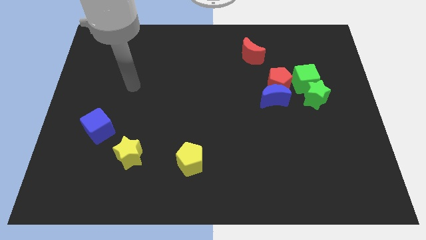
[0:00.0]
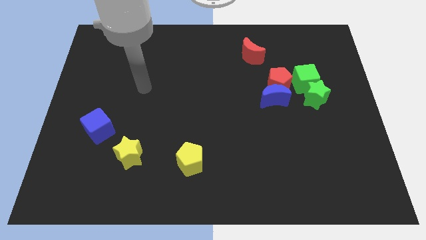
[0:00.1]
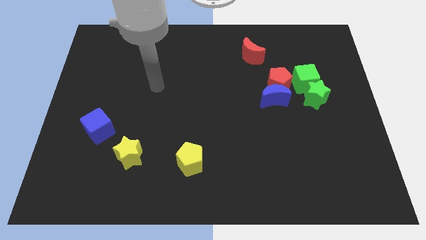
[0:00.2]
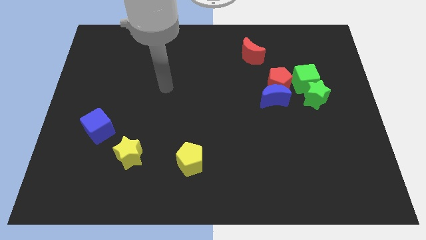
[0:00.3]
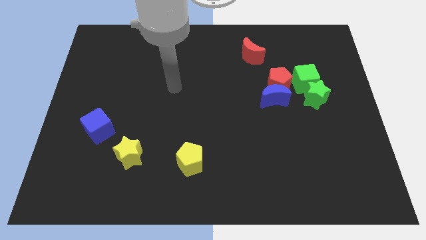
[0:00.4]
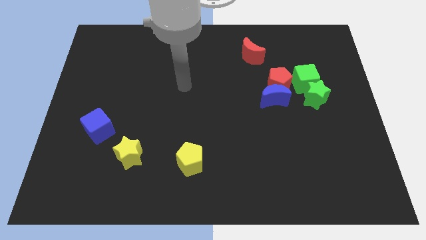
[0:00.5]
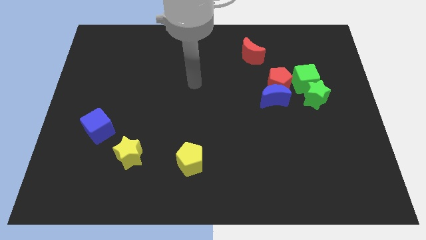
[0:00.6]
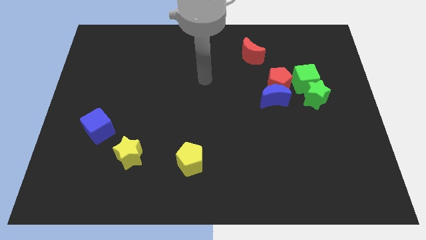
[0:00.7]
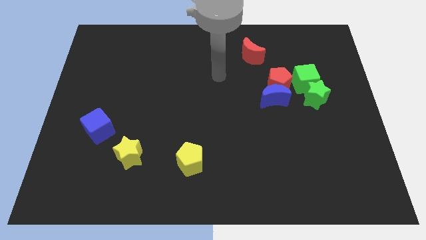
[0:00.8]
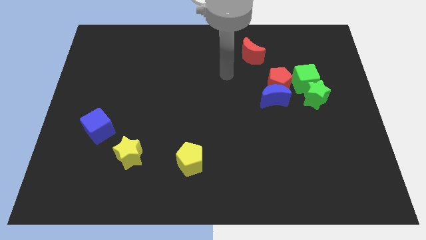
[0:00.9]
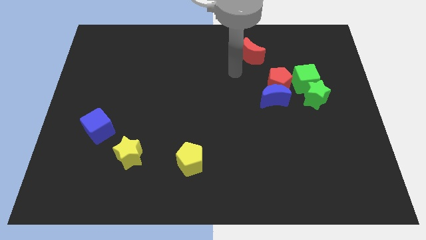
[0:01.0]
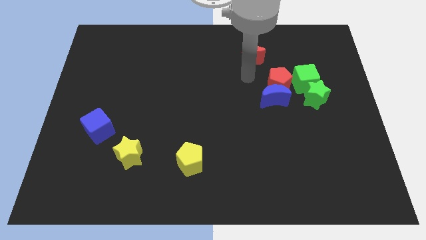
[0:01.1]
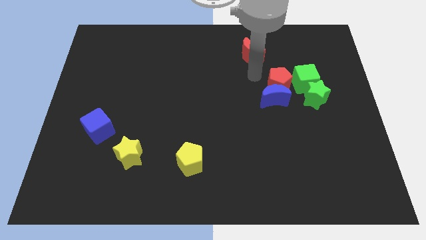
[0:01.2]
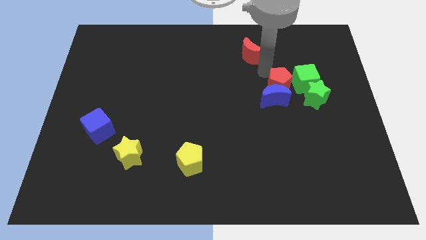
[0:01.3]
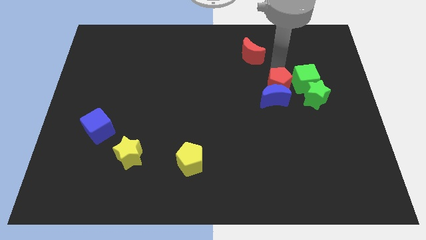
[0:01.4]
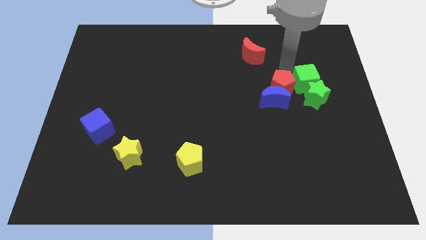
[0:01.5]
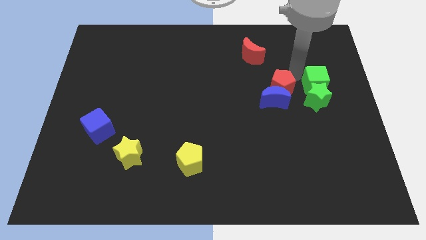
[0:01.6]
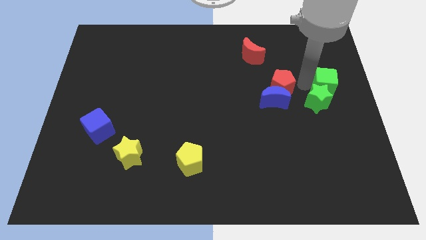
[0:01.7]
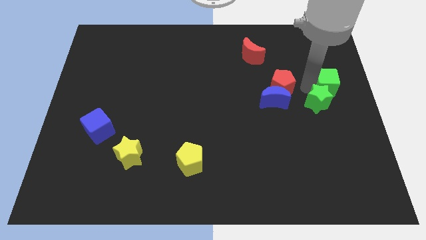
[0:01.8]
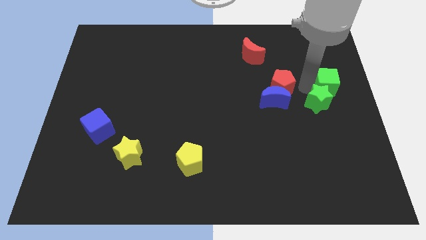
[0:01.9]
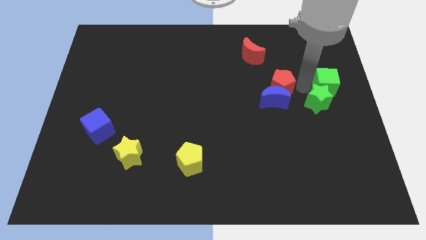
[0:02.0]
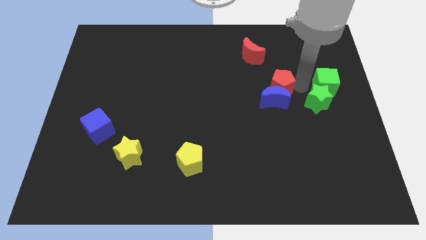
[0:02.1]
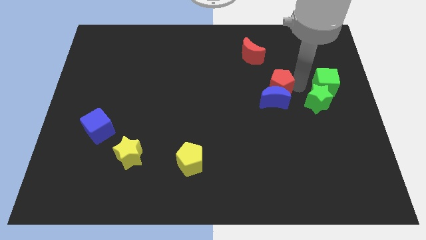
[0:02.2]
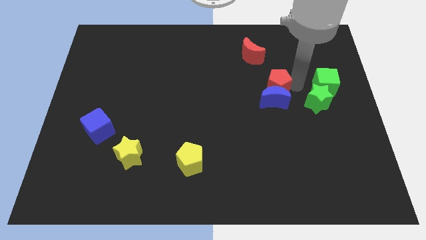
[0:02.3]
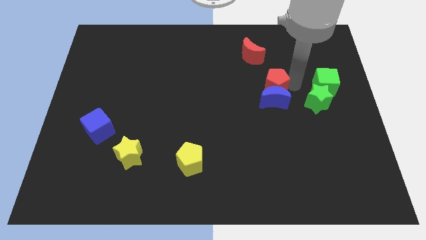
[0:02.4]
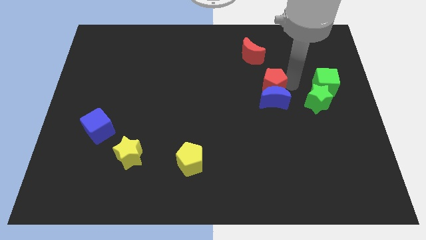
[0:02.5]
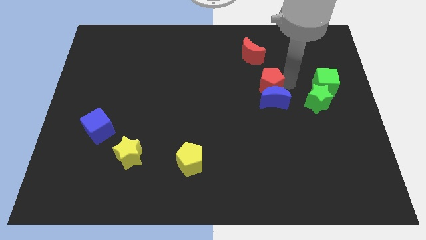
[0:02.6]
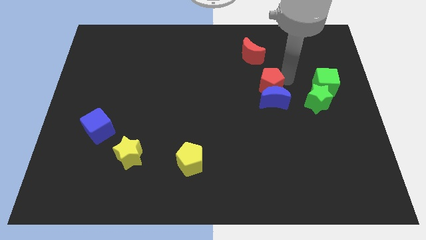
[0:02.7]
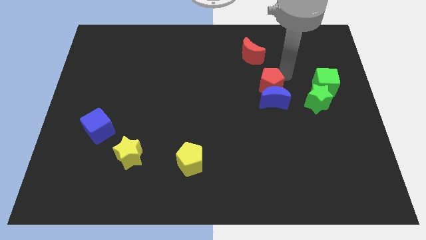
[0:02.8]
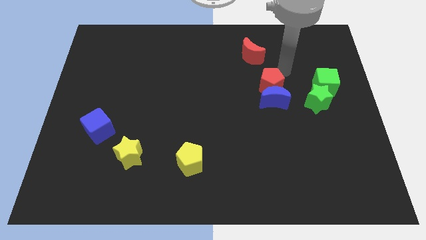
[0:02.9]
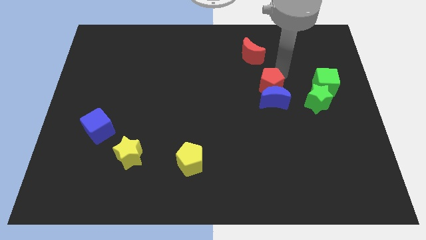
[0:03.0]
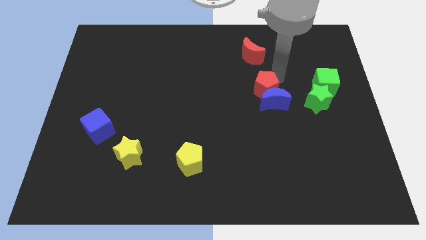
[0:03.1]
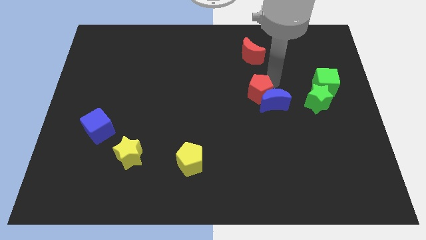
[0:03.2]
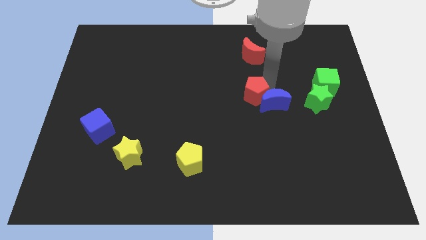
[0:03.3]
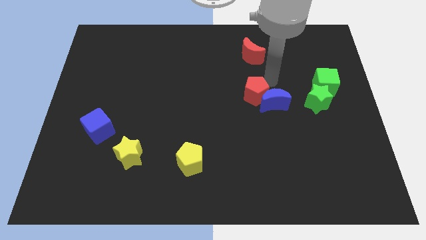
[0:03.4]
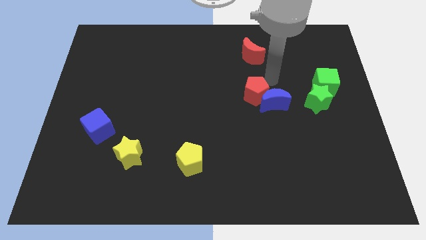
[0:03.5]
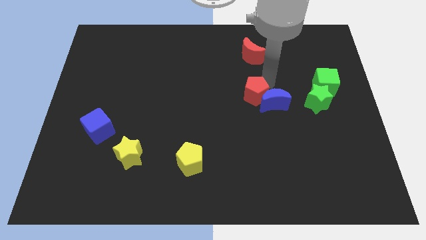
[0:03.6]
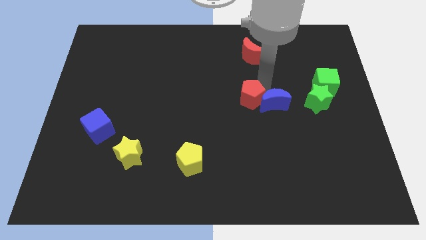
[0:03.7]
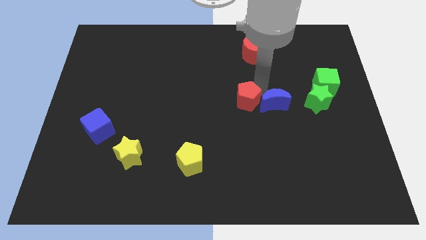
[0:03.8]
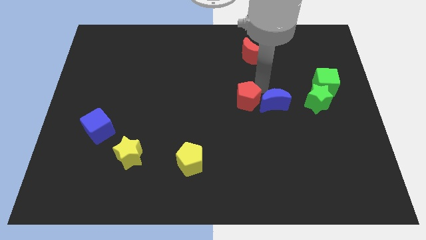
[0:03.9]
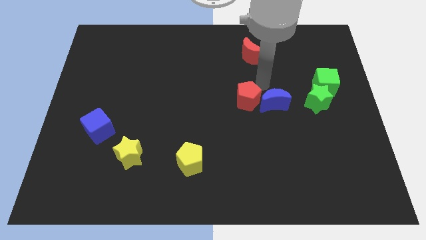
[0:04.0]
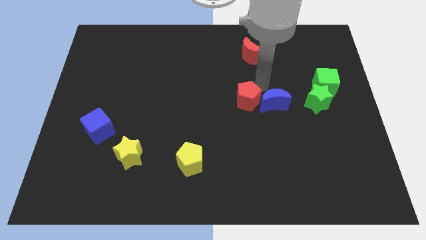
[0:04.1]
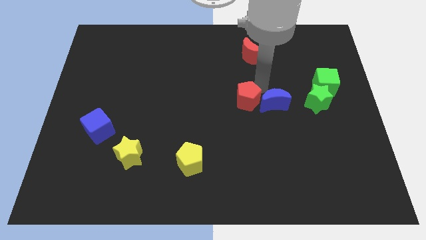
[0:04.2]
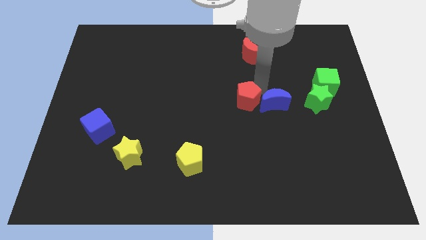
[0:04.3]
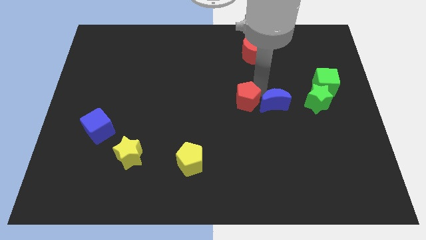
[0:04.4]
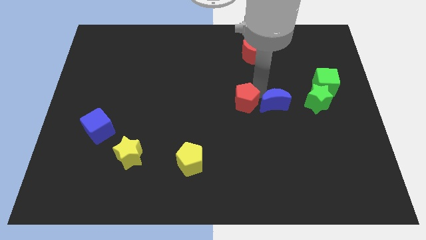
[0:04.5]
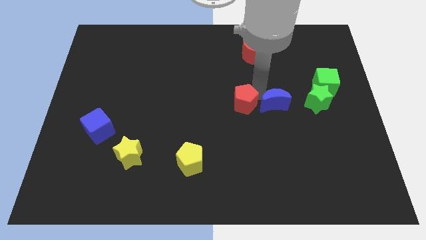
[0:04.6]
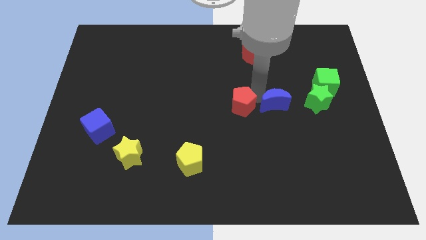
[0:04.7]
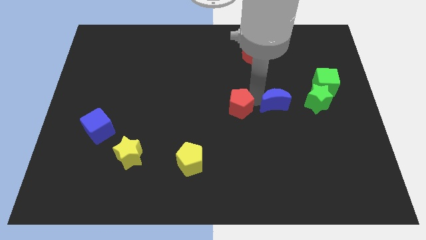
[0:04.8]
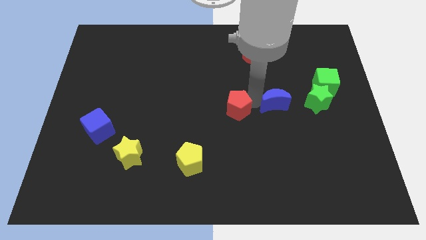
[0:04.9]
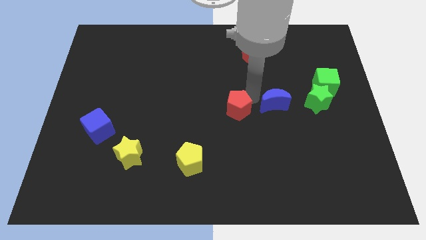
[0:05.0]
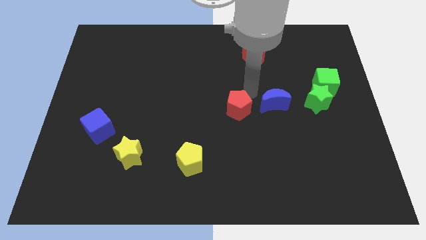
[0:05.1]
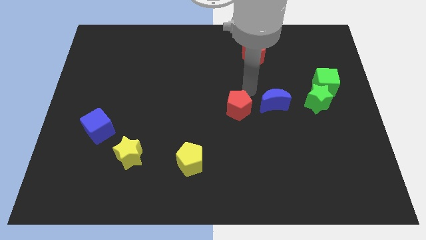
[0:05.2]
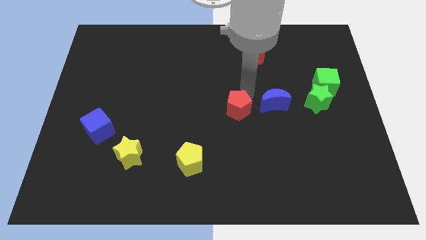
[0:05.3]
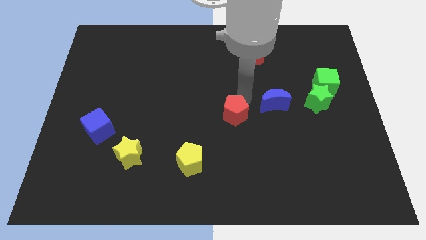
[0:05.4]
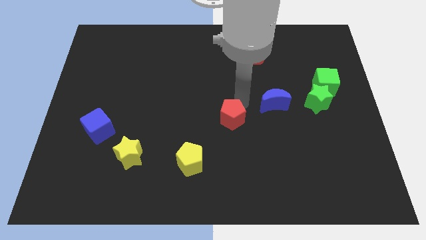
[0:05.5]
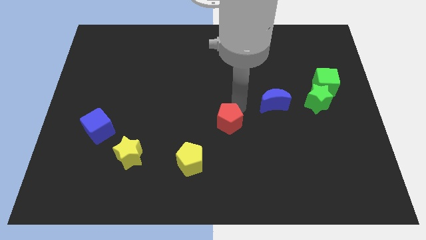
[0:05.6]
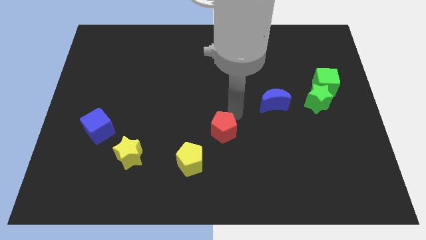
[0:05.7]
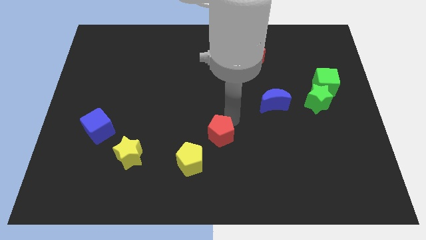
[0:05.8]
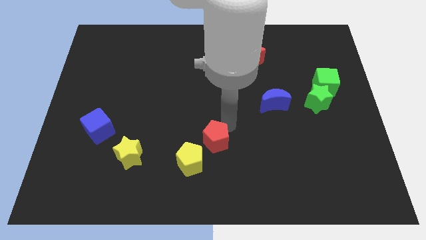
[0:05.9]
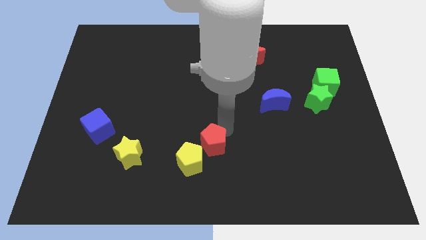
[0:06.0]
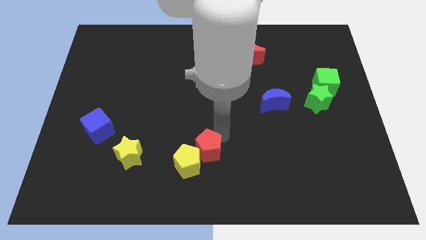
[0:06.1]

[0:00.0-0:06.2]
put the red pentagon close to the yellow pentagon

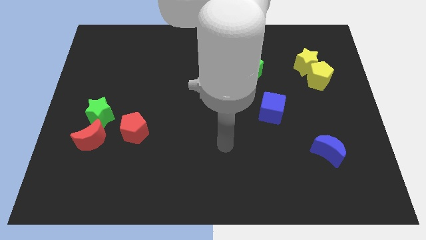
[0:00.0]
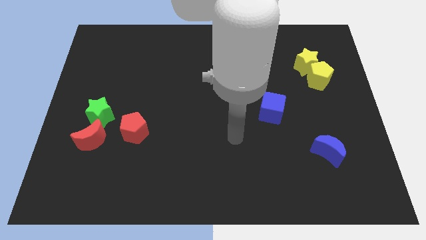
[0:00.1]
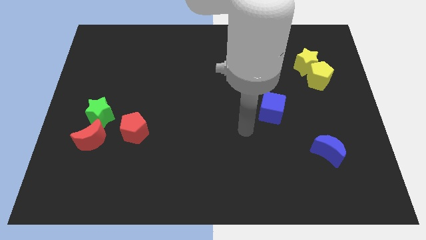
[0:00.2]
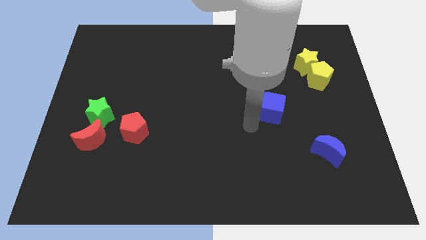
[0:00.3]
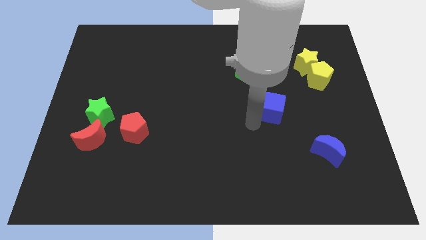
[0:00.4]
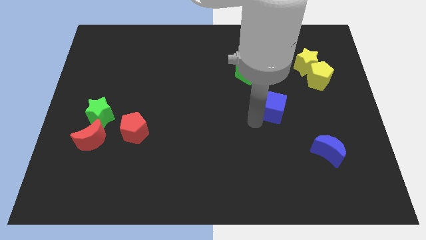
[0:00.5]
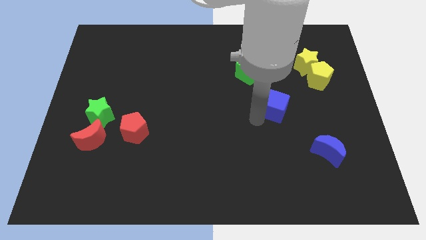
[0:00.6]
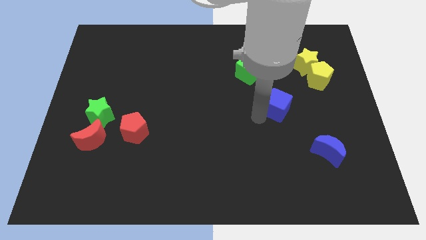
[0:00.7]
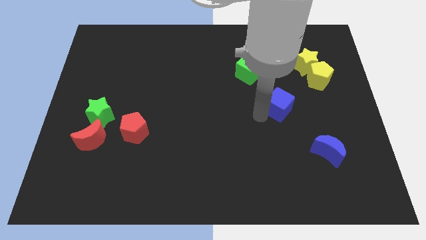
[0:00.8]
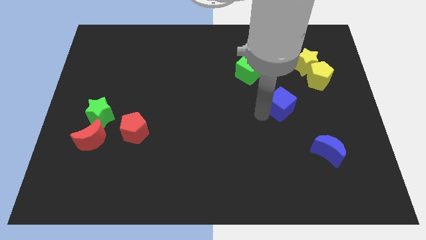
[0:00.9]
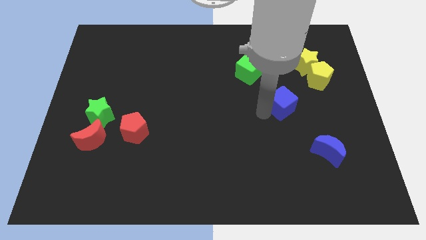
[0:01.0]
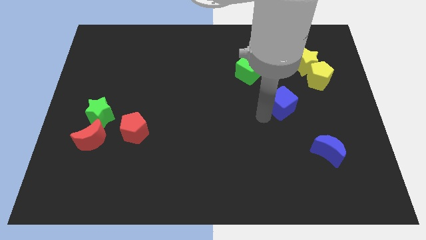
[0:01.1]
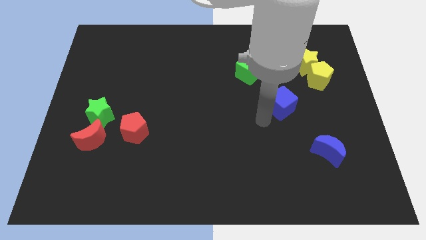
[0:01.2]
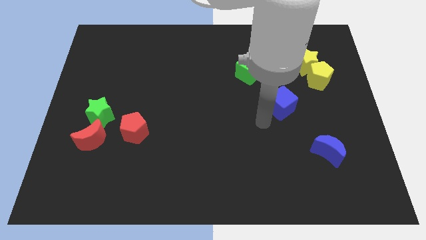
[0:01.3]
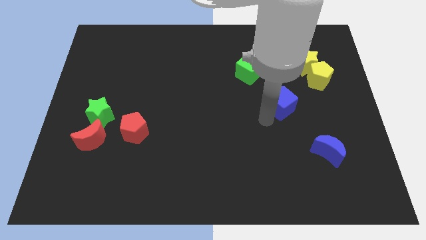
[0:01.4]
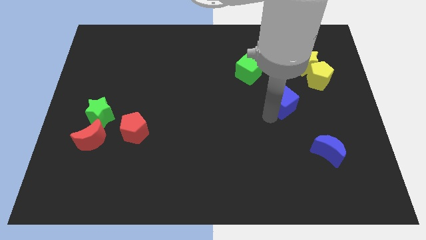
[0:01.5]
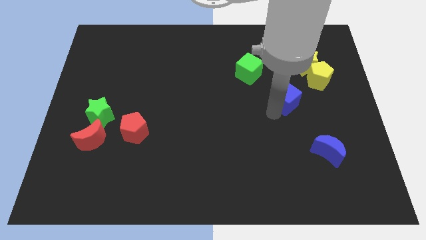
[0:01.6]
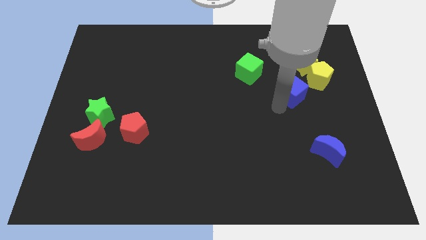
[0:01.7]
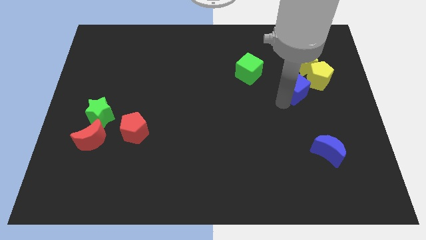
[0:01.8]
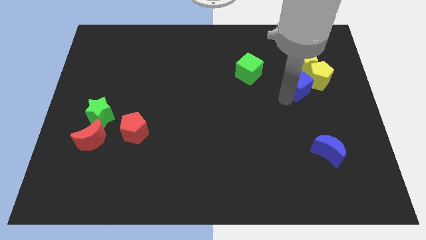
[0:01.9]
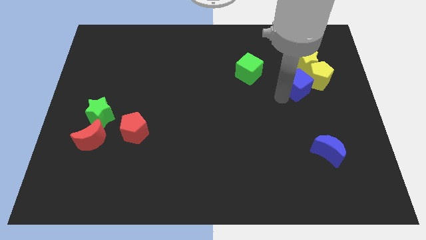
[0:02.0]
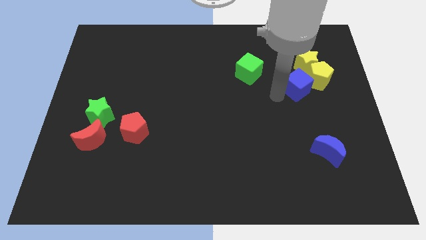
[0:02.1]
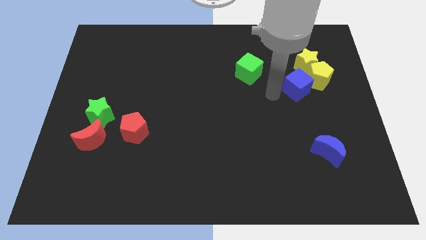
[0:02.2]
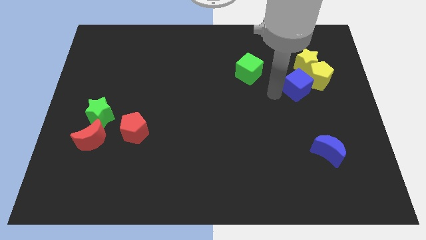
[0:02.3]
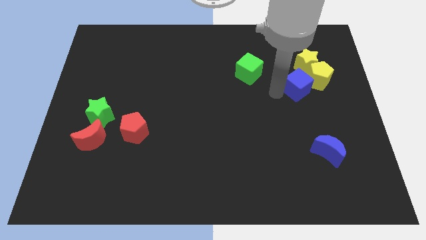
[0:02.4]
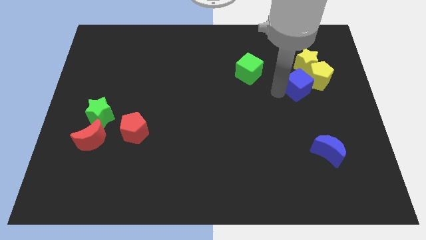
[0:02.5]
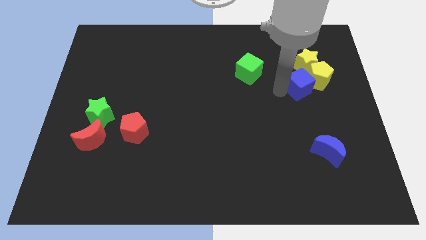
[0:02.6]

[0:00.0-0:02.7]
put the blue cube next to the yellow pentagon
